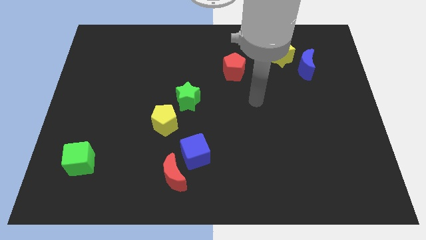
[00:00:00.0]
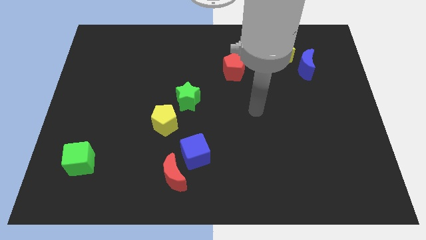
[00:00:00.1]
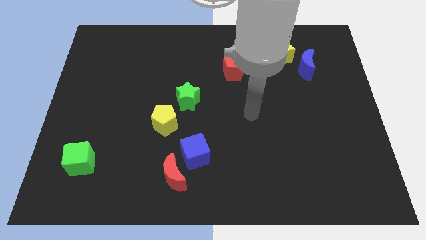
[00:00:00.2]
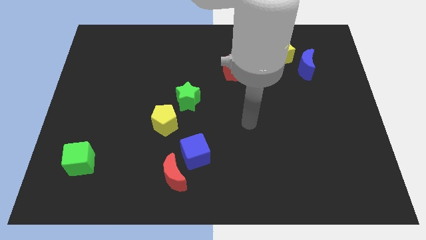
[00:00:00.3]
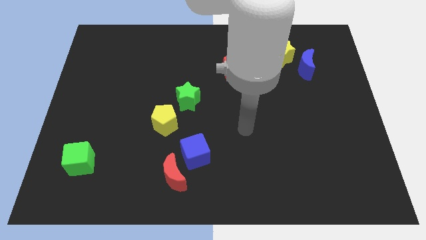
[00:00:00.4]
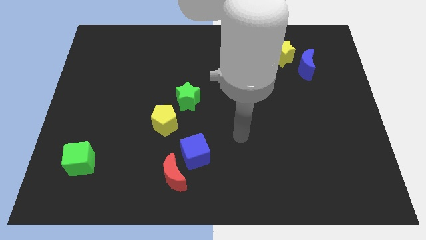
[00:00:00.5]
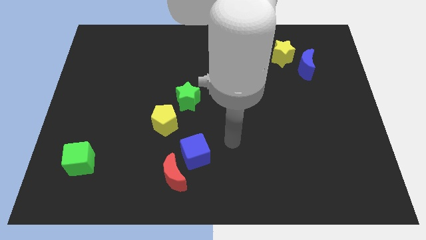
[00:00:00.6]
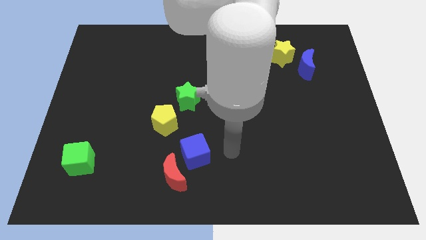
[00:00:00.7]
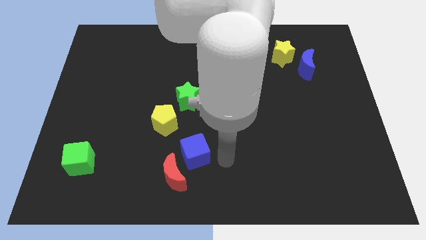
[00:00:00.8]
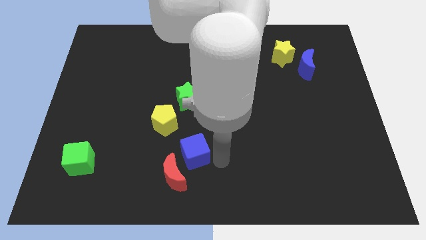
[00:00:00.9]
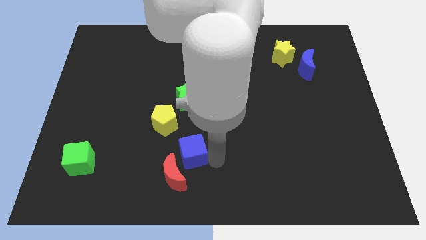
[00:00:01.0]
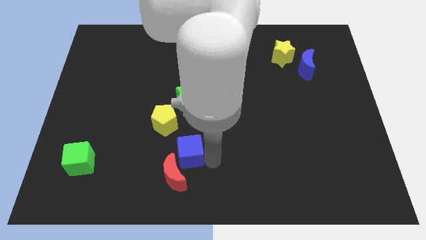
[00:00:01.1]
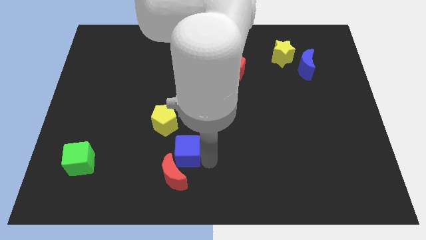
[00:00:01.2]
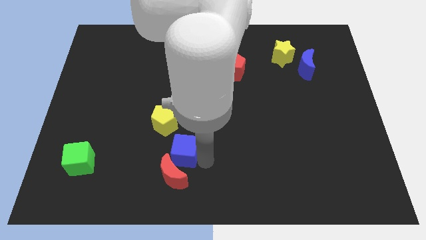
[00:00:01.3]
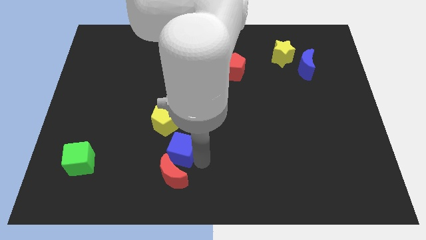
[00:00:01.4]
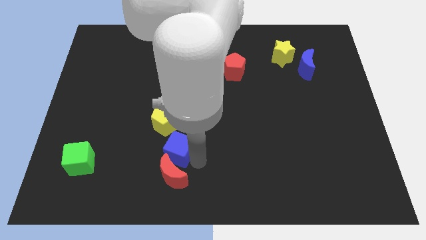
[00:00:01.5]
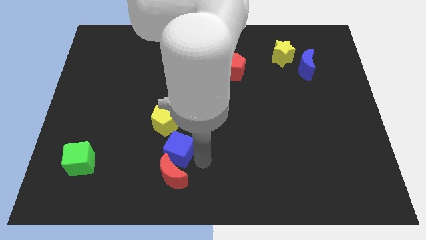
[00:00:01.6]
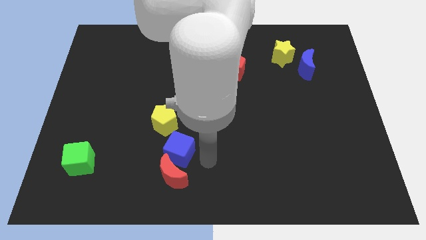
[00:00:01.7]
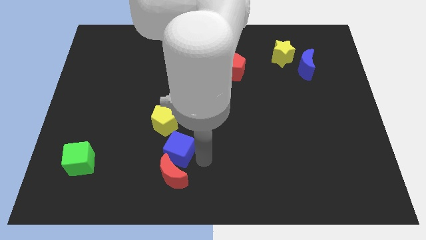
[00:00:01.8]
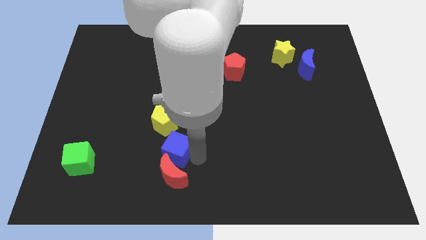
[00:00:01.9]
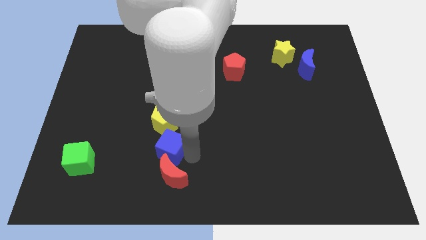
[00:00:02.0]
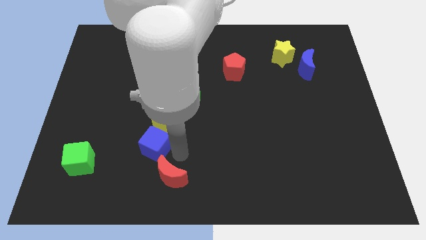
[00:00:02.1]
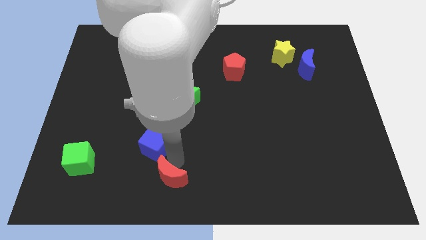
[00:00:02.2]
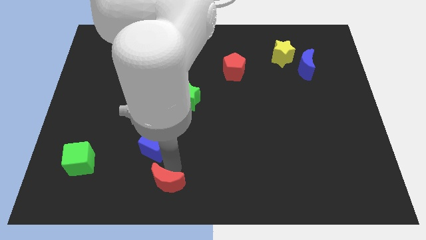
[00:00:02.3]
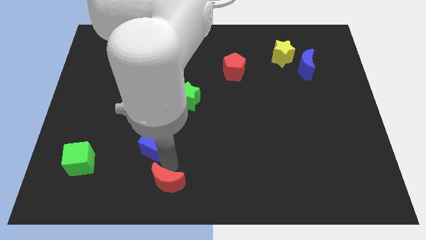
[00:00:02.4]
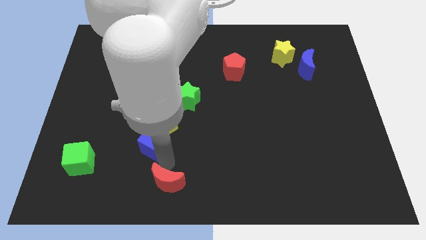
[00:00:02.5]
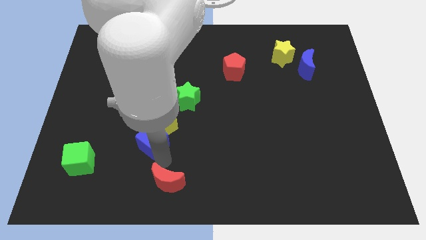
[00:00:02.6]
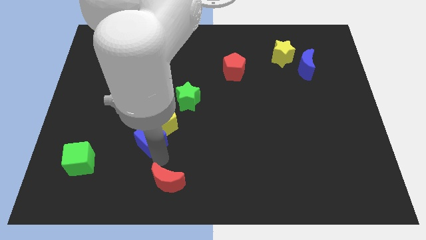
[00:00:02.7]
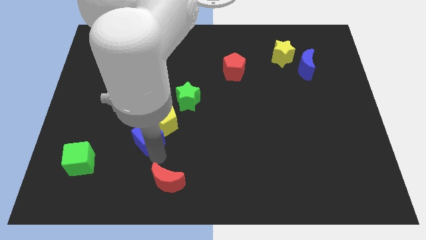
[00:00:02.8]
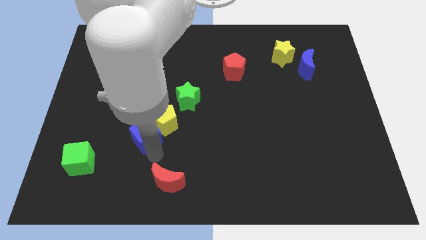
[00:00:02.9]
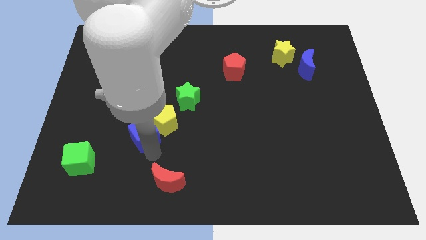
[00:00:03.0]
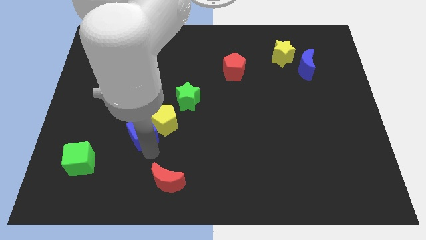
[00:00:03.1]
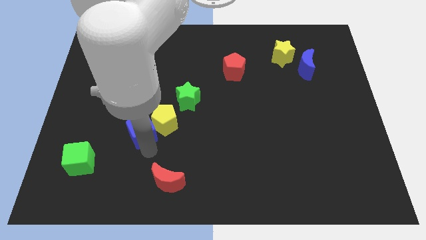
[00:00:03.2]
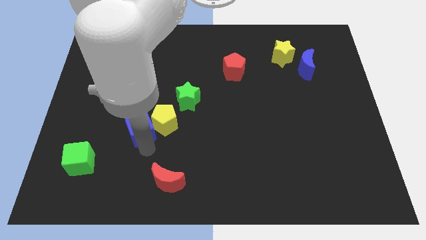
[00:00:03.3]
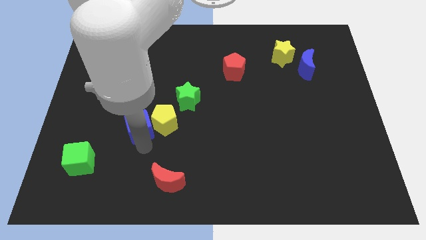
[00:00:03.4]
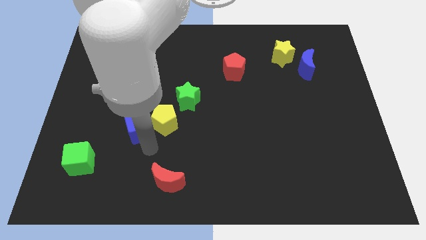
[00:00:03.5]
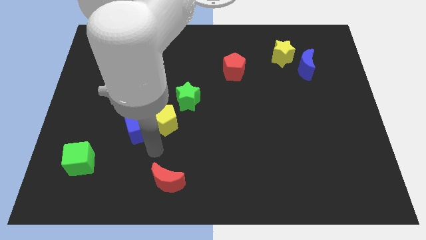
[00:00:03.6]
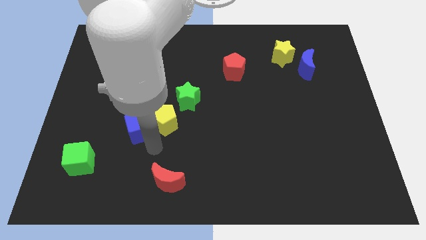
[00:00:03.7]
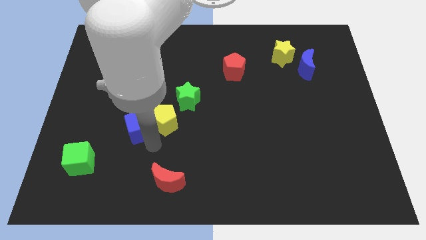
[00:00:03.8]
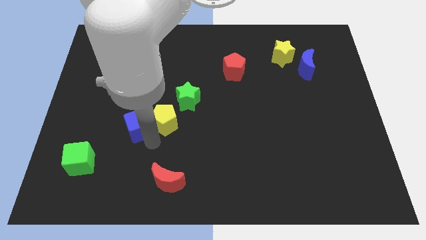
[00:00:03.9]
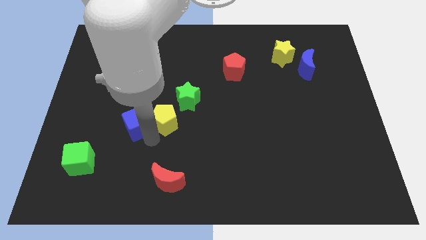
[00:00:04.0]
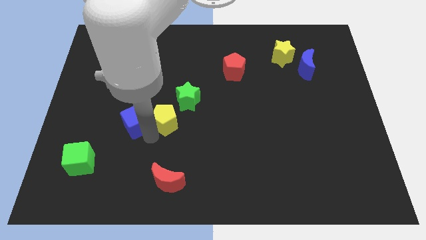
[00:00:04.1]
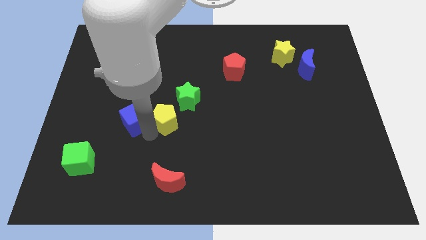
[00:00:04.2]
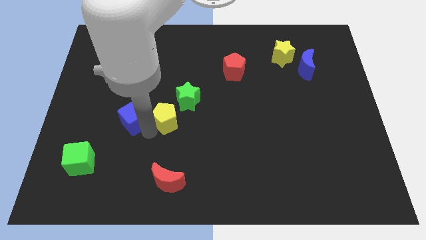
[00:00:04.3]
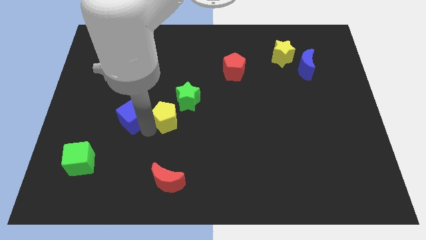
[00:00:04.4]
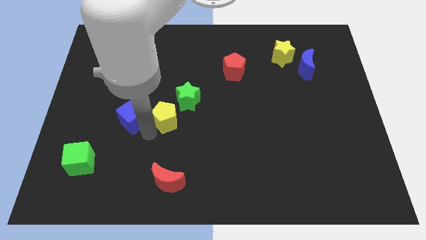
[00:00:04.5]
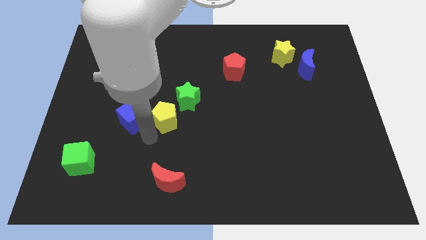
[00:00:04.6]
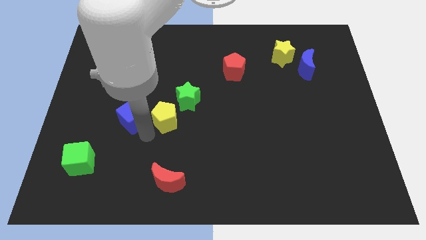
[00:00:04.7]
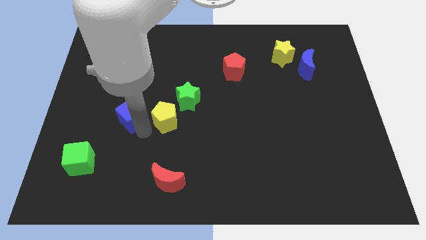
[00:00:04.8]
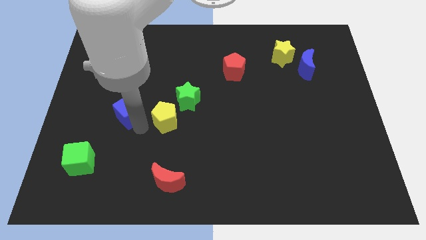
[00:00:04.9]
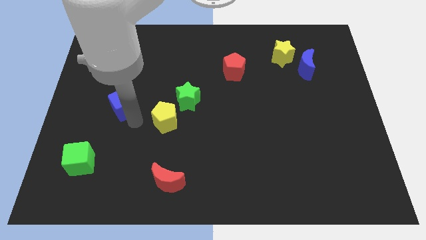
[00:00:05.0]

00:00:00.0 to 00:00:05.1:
move the blue cube upwards and left diagonally

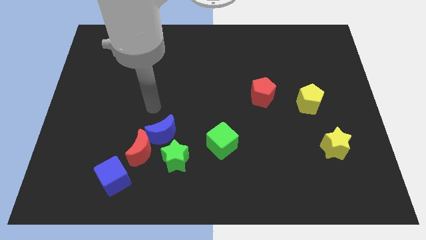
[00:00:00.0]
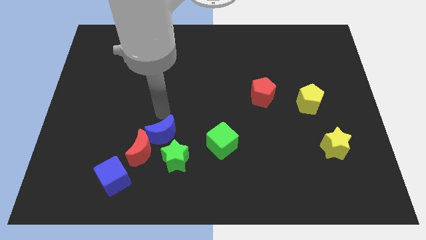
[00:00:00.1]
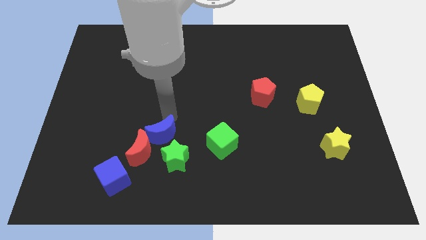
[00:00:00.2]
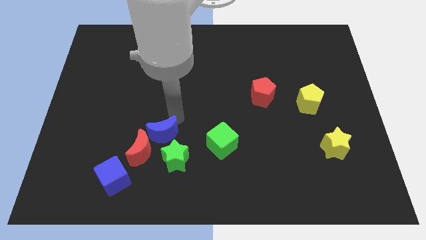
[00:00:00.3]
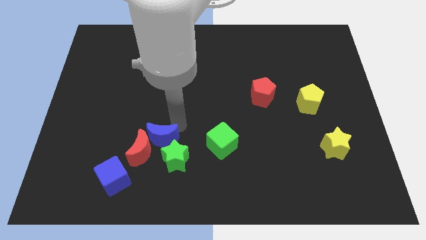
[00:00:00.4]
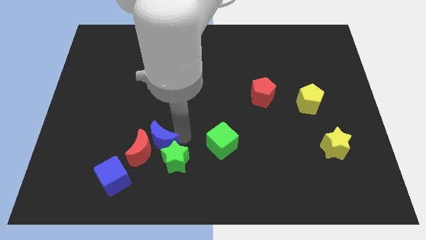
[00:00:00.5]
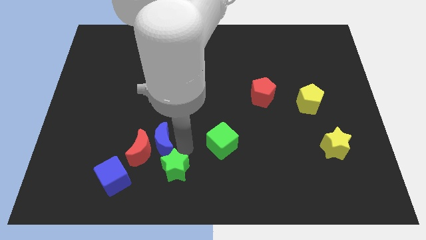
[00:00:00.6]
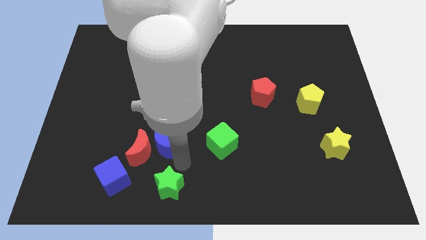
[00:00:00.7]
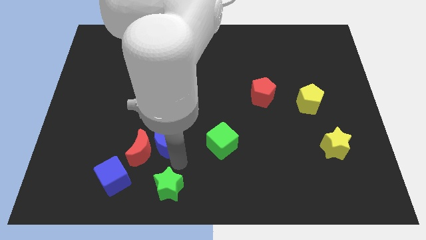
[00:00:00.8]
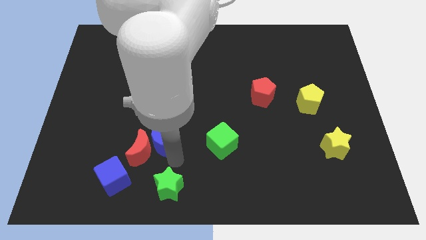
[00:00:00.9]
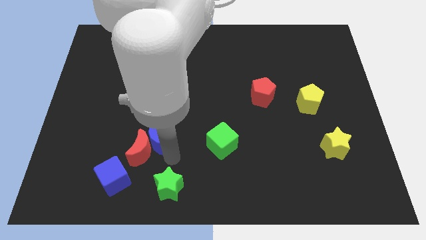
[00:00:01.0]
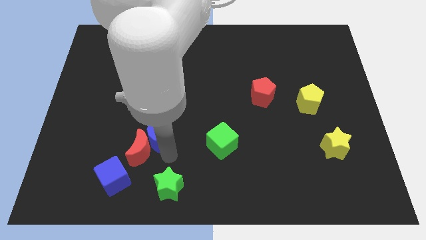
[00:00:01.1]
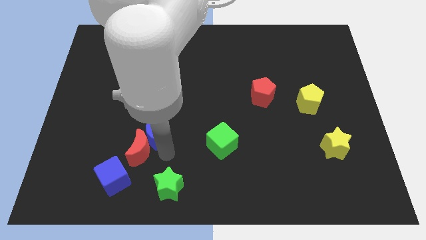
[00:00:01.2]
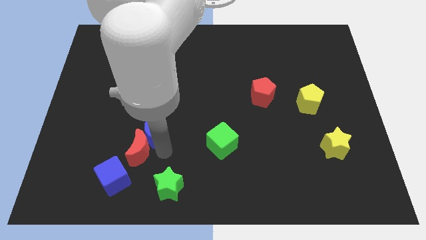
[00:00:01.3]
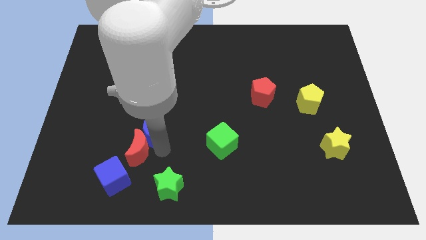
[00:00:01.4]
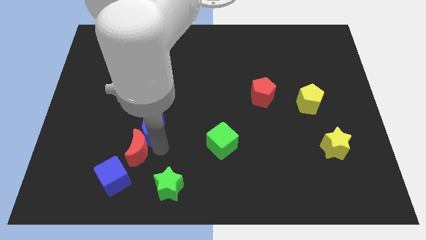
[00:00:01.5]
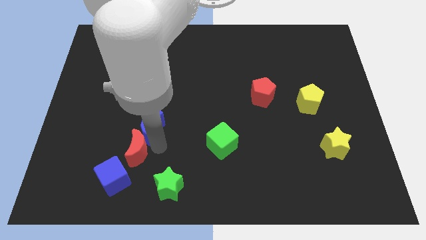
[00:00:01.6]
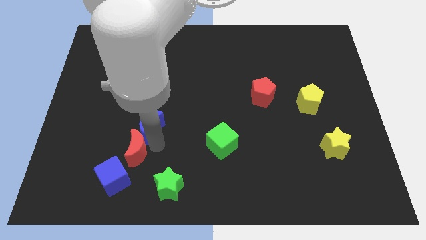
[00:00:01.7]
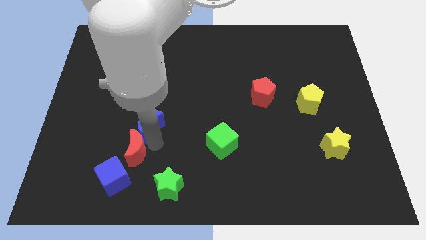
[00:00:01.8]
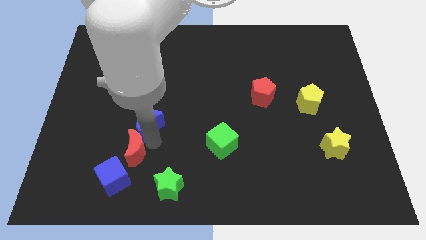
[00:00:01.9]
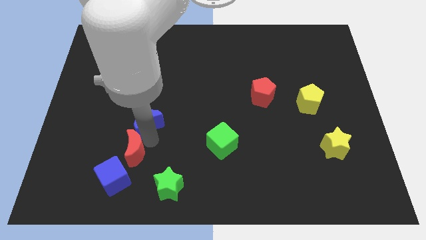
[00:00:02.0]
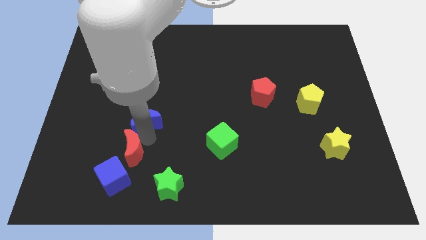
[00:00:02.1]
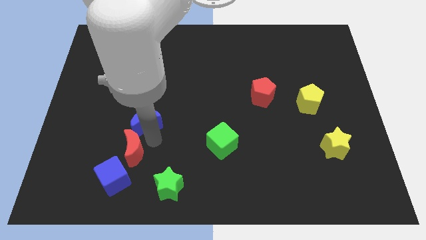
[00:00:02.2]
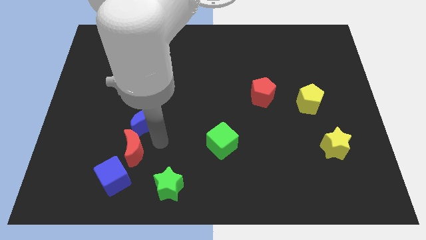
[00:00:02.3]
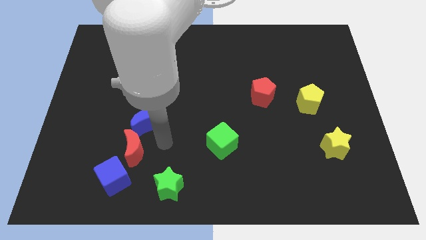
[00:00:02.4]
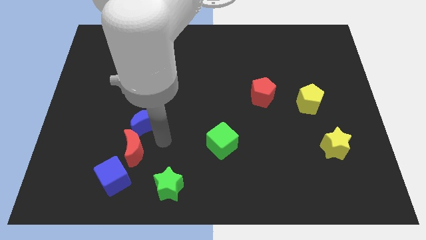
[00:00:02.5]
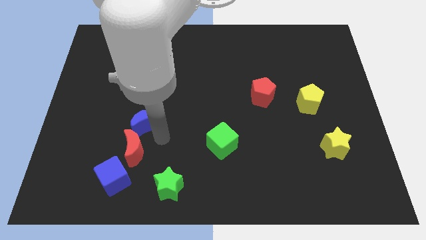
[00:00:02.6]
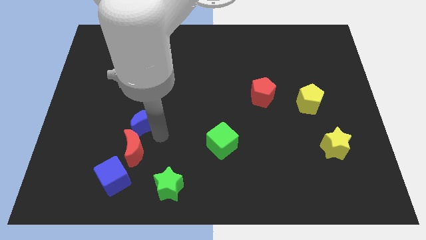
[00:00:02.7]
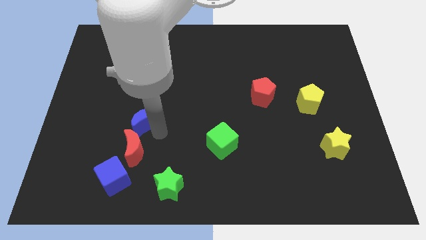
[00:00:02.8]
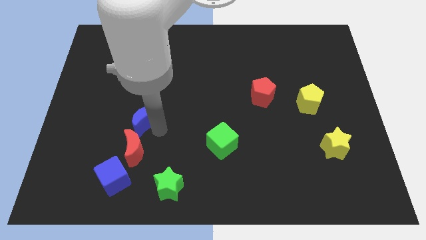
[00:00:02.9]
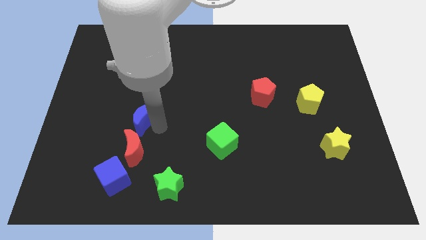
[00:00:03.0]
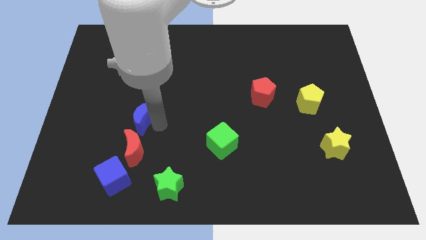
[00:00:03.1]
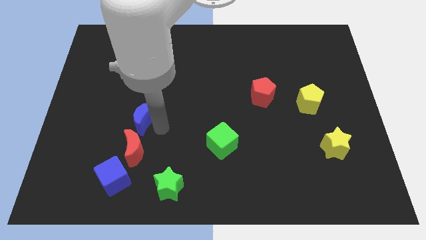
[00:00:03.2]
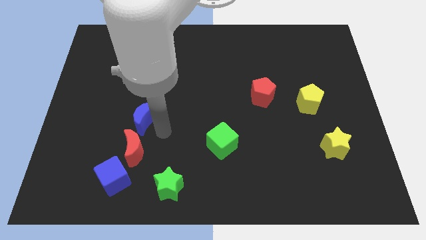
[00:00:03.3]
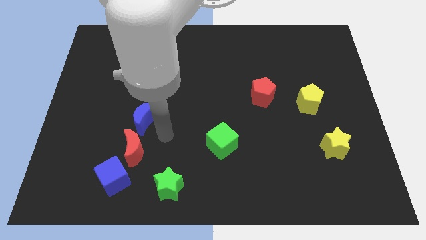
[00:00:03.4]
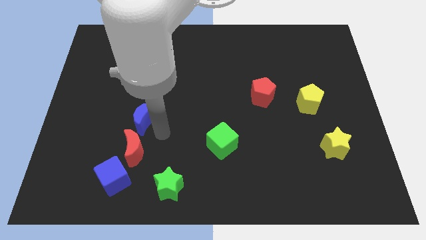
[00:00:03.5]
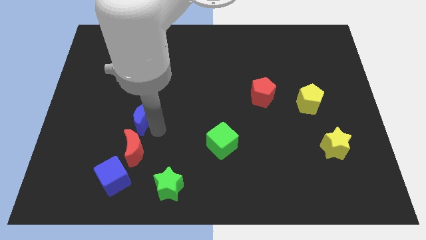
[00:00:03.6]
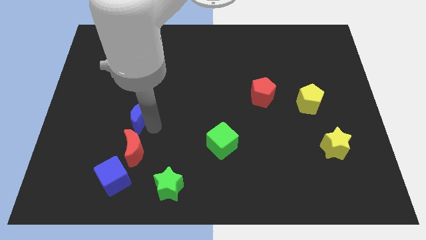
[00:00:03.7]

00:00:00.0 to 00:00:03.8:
slide the blue moon diagonally upwards and left a bit
